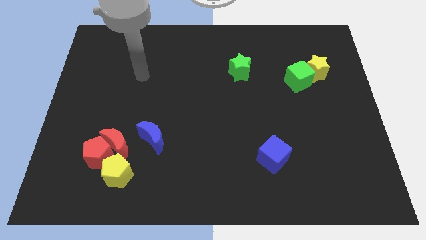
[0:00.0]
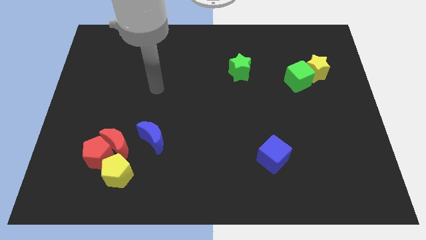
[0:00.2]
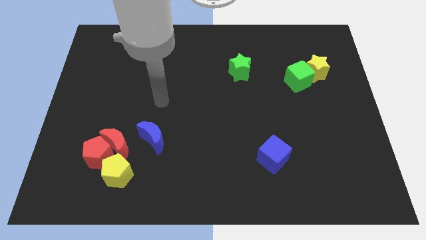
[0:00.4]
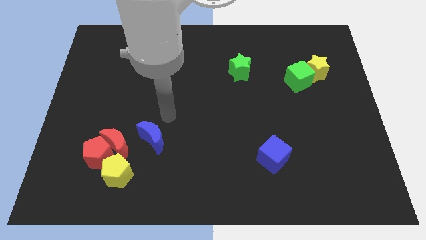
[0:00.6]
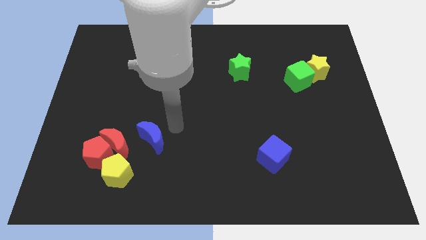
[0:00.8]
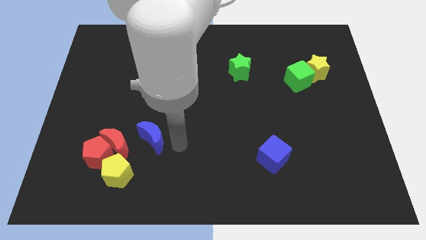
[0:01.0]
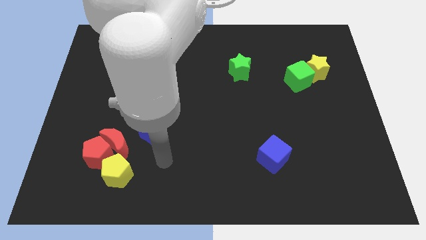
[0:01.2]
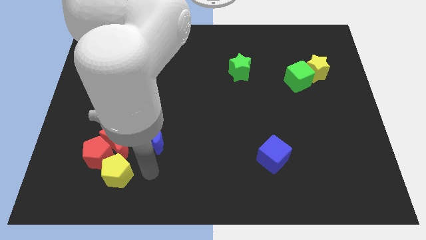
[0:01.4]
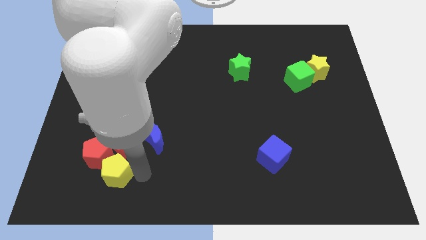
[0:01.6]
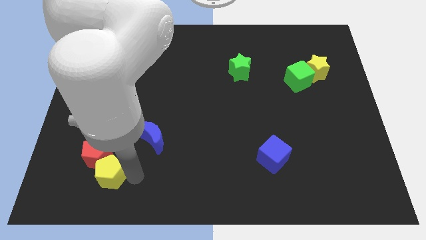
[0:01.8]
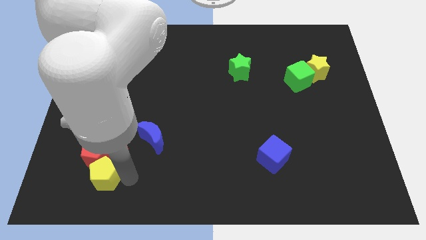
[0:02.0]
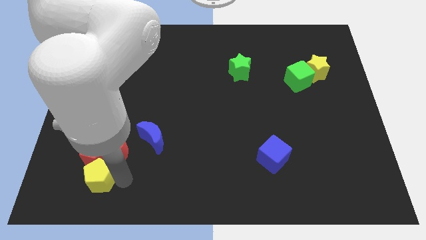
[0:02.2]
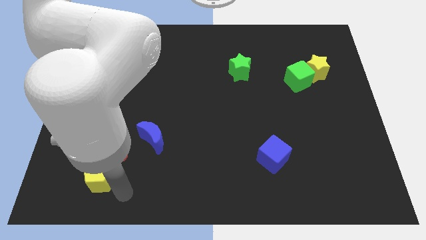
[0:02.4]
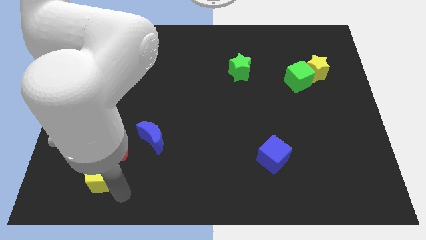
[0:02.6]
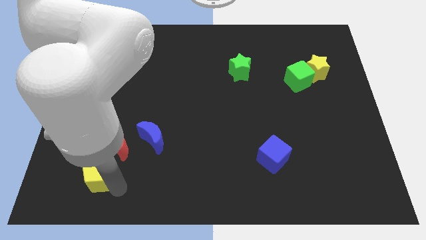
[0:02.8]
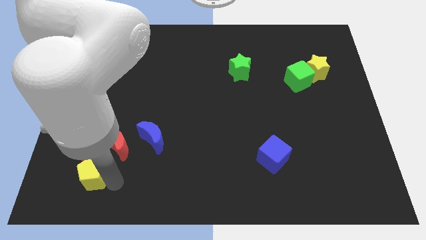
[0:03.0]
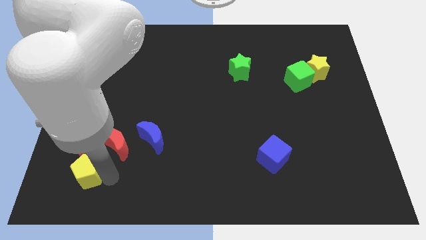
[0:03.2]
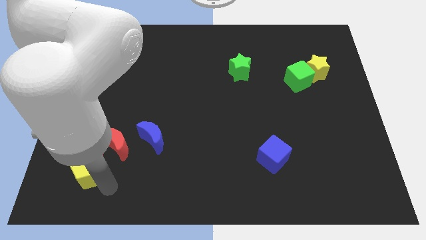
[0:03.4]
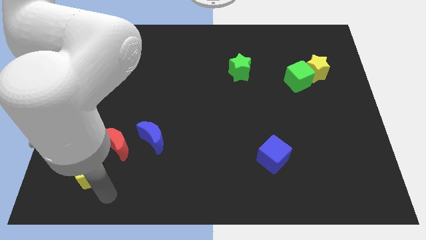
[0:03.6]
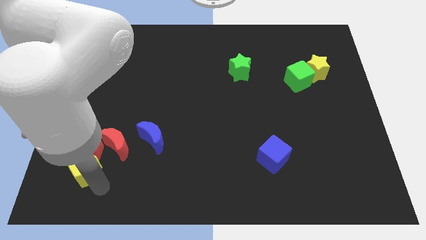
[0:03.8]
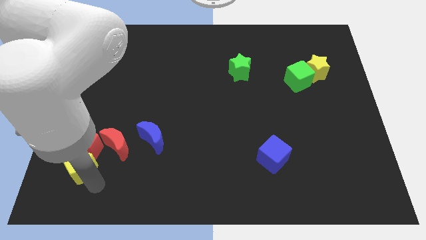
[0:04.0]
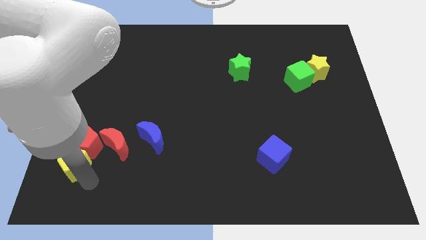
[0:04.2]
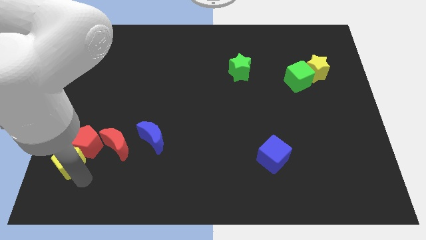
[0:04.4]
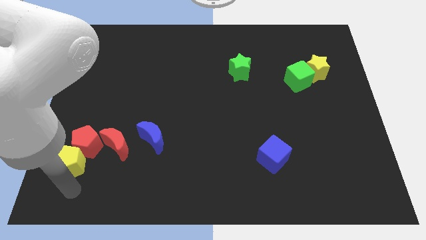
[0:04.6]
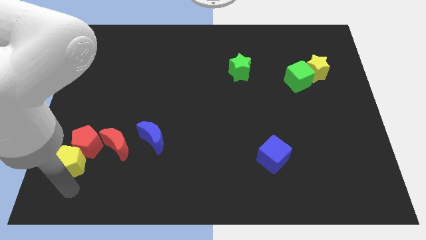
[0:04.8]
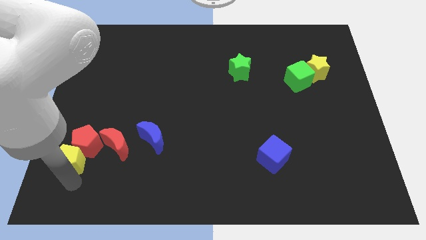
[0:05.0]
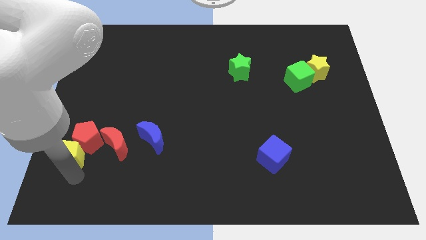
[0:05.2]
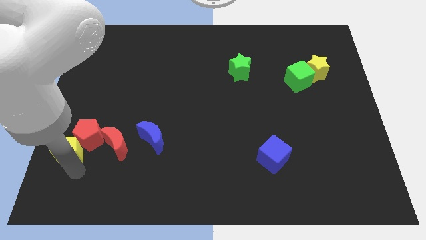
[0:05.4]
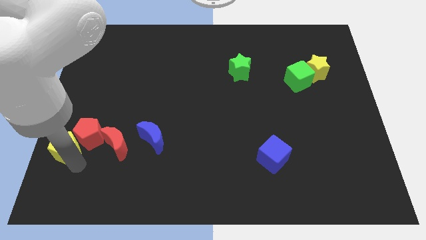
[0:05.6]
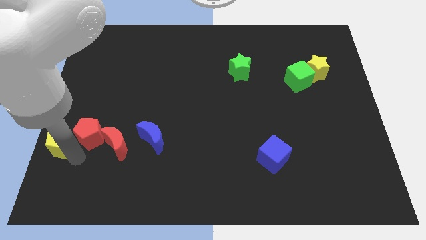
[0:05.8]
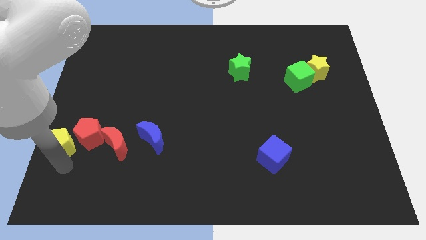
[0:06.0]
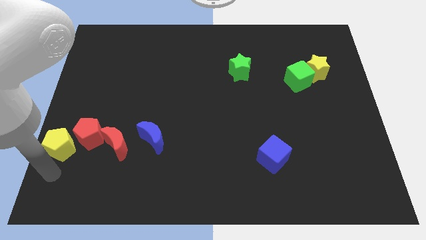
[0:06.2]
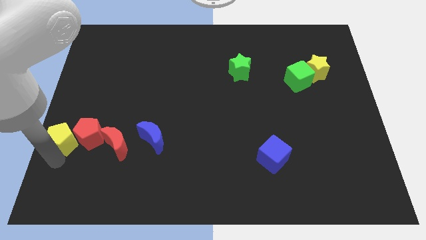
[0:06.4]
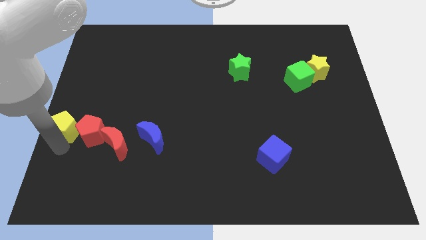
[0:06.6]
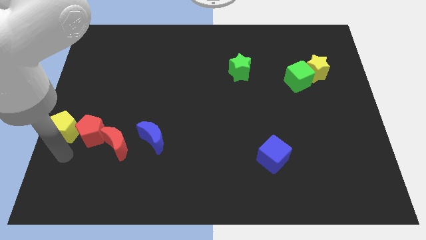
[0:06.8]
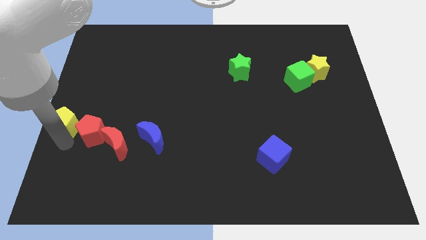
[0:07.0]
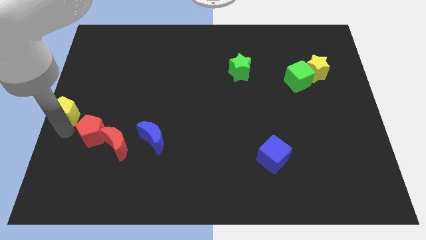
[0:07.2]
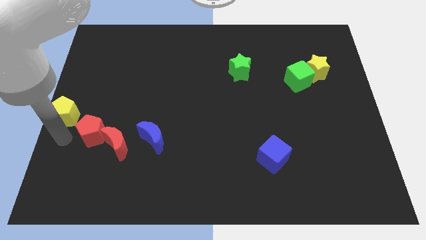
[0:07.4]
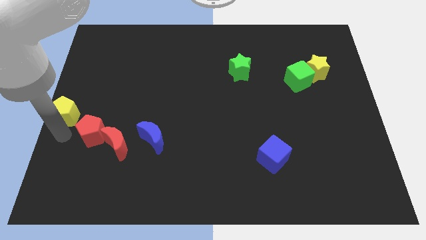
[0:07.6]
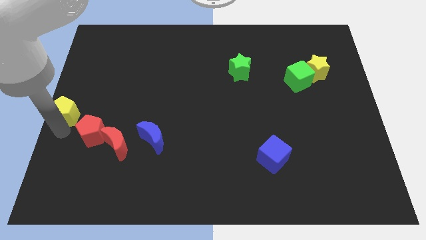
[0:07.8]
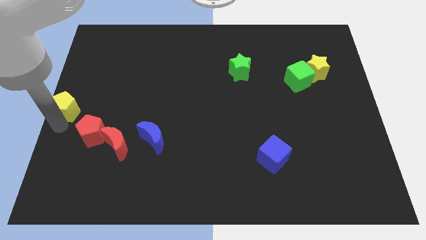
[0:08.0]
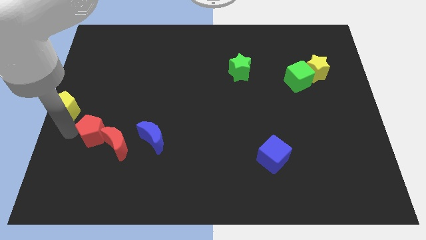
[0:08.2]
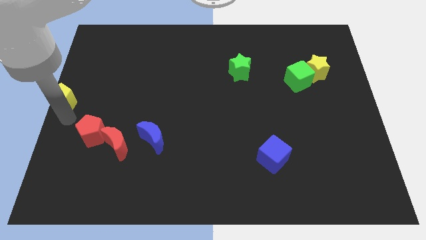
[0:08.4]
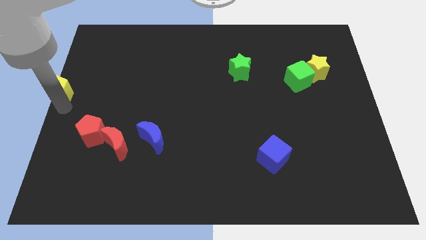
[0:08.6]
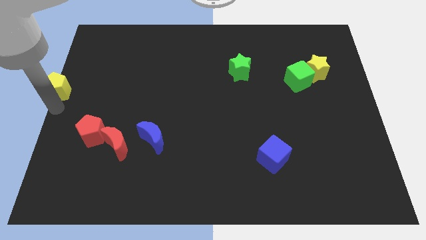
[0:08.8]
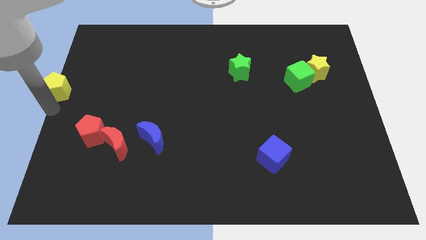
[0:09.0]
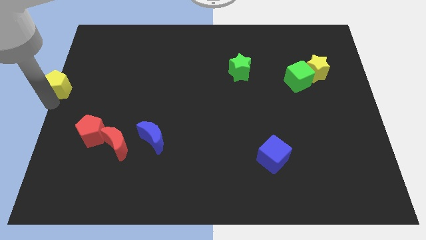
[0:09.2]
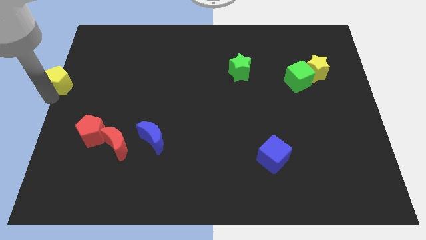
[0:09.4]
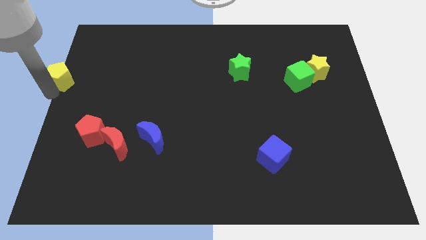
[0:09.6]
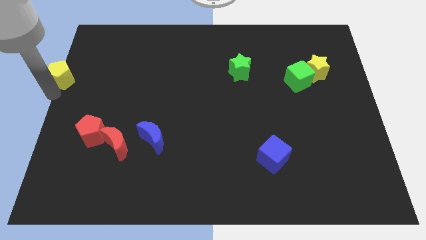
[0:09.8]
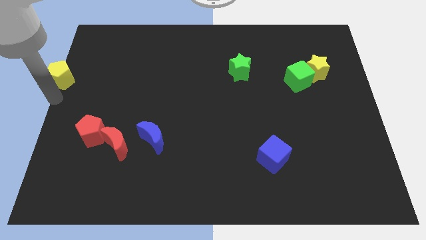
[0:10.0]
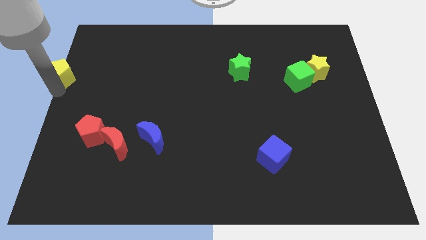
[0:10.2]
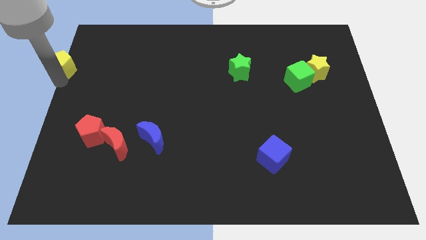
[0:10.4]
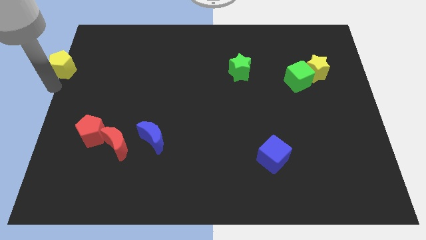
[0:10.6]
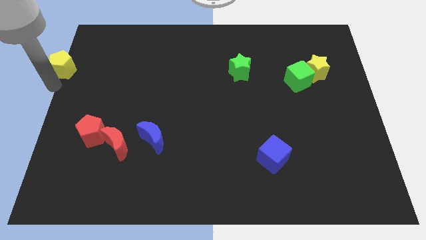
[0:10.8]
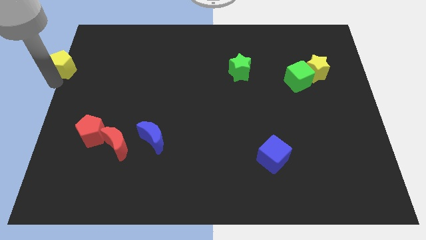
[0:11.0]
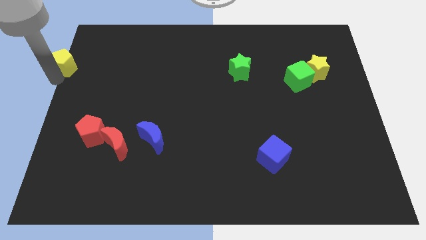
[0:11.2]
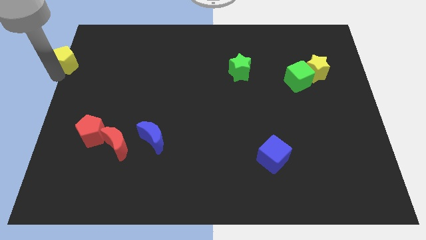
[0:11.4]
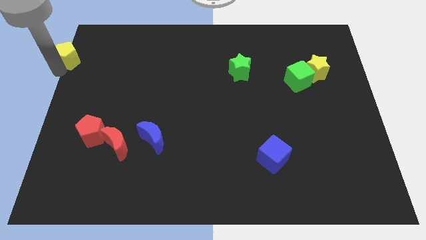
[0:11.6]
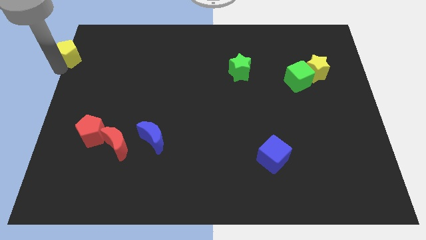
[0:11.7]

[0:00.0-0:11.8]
put the yellow pentagon to the top left corner
